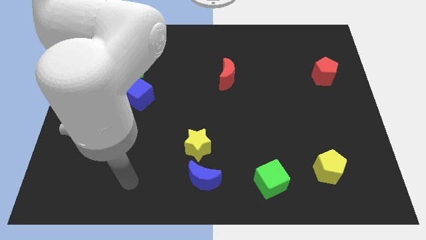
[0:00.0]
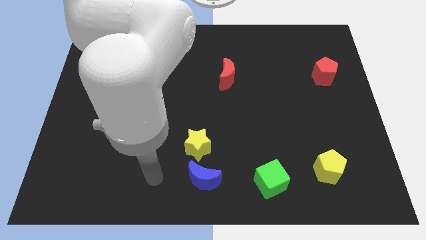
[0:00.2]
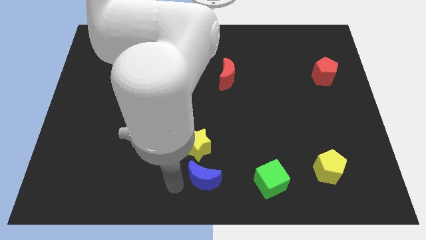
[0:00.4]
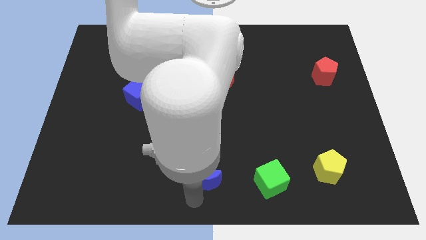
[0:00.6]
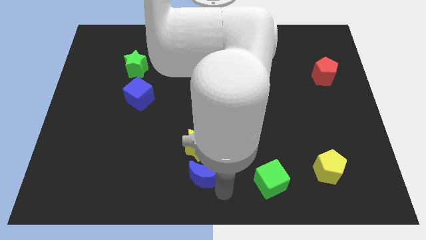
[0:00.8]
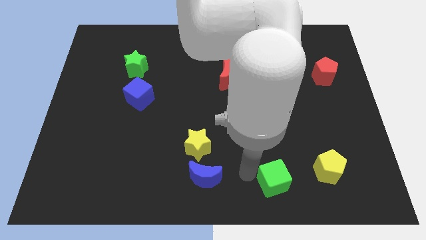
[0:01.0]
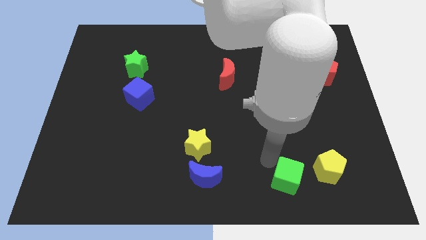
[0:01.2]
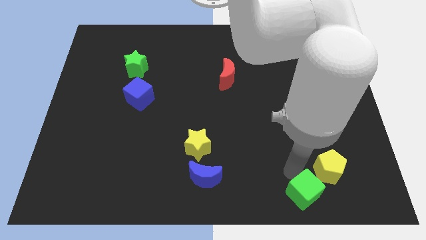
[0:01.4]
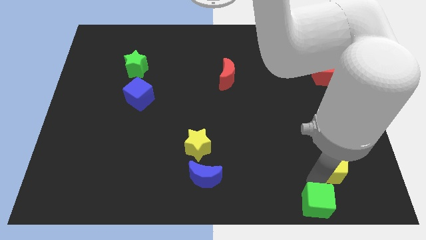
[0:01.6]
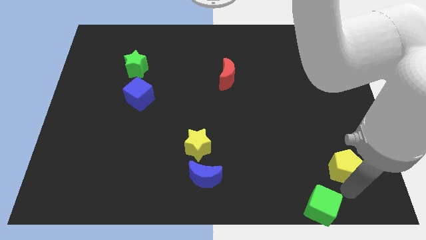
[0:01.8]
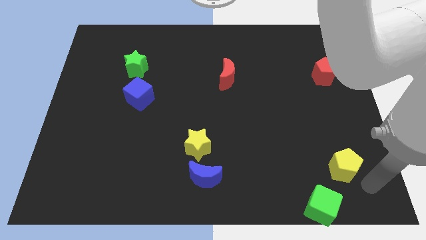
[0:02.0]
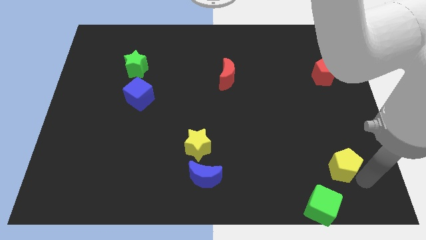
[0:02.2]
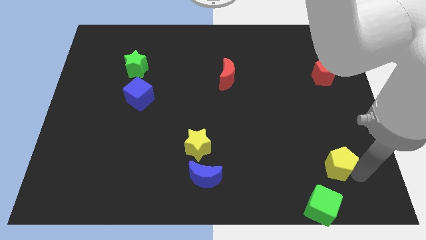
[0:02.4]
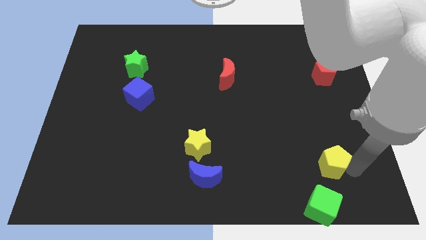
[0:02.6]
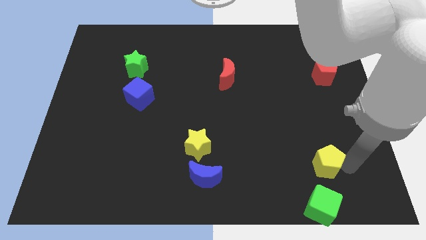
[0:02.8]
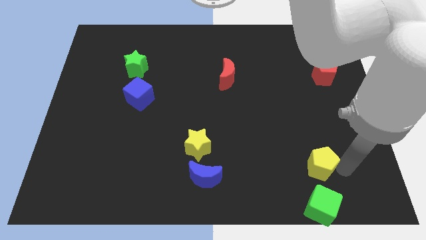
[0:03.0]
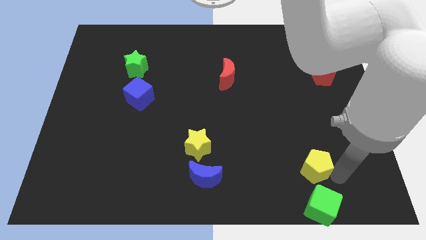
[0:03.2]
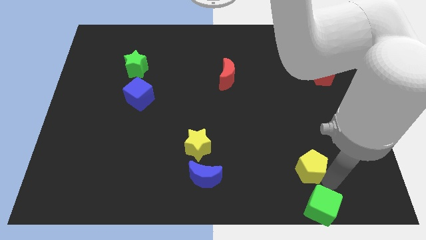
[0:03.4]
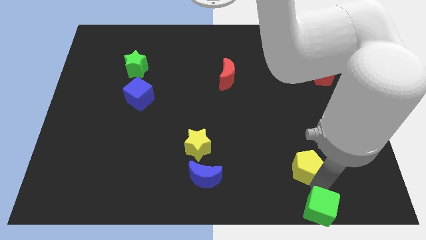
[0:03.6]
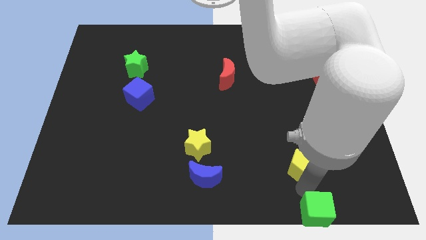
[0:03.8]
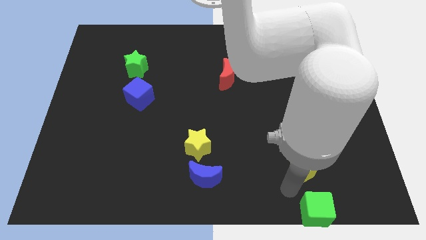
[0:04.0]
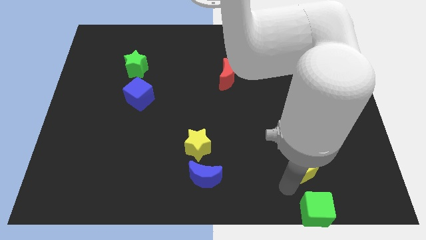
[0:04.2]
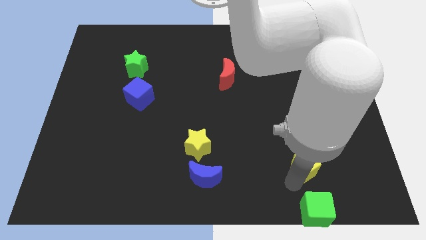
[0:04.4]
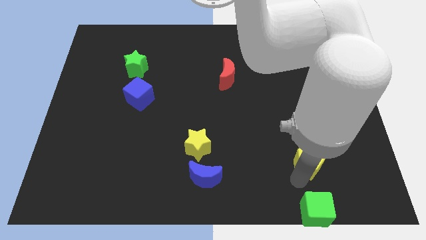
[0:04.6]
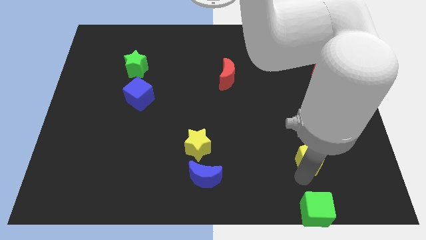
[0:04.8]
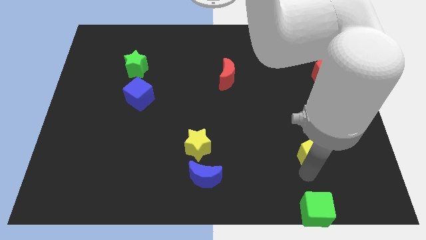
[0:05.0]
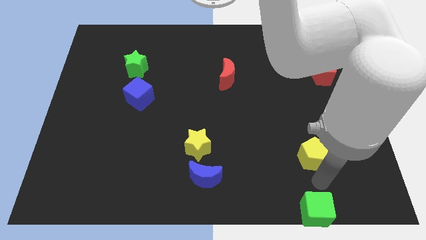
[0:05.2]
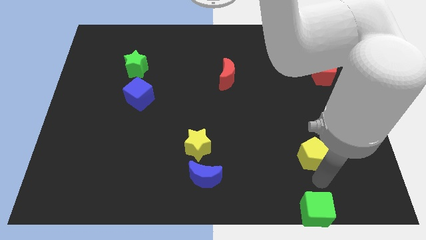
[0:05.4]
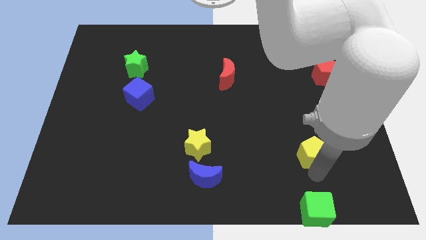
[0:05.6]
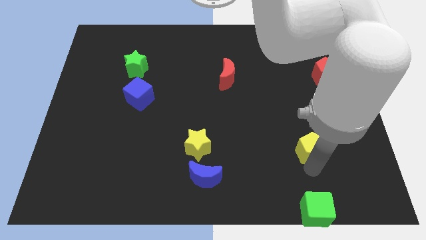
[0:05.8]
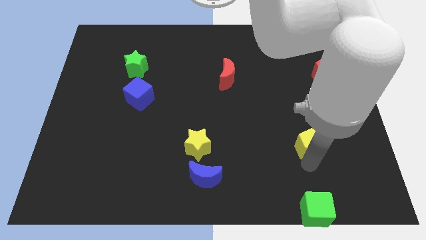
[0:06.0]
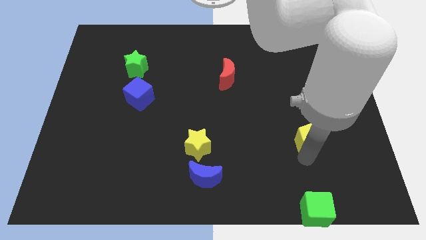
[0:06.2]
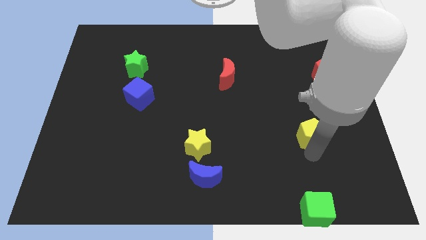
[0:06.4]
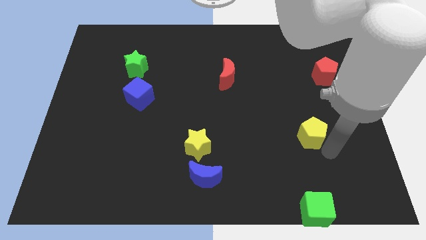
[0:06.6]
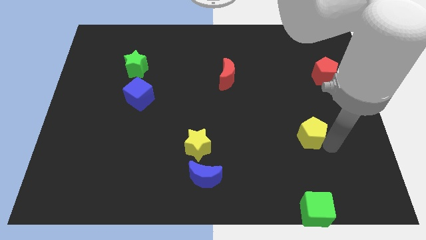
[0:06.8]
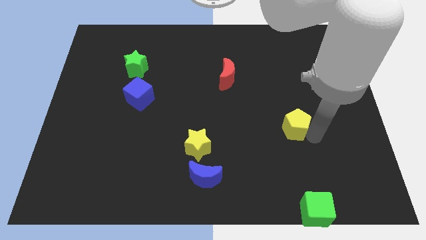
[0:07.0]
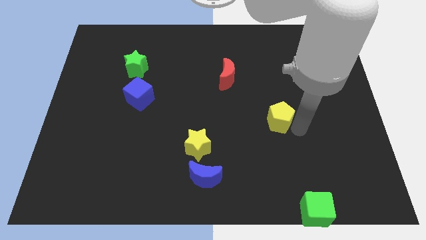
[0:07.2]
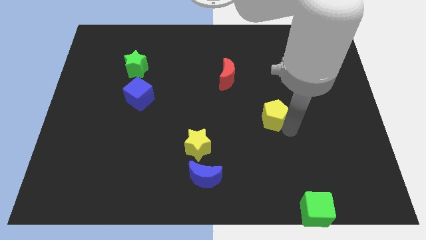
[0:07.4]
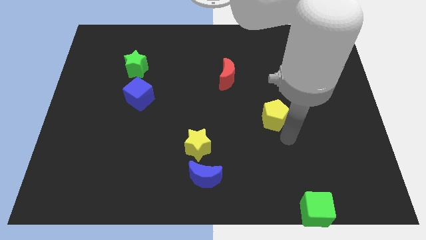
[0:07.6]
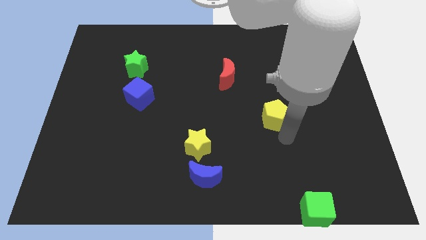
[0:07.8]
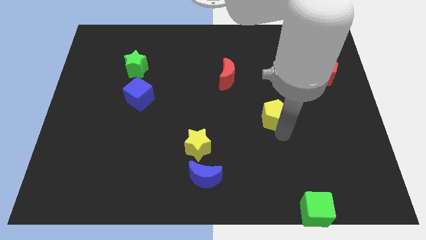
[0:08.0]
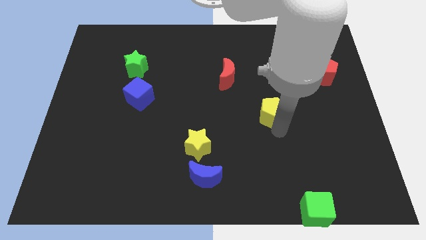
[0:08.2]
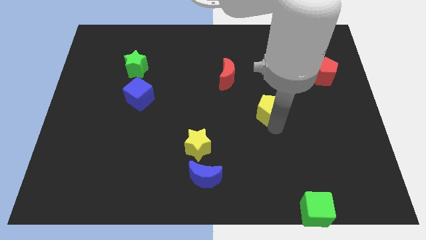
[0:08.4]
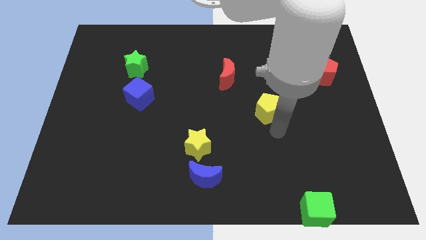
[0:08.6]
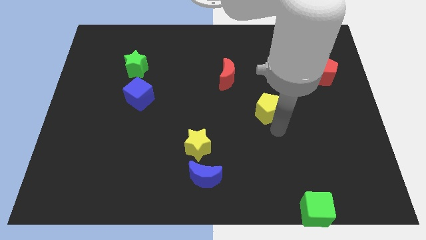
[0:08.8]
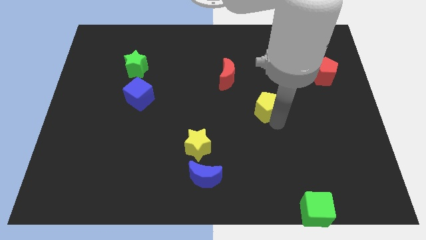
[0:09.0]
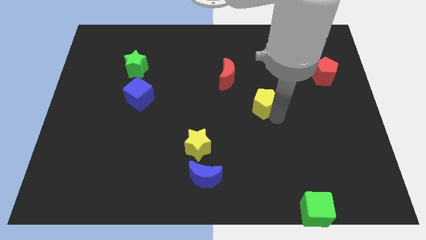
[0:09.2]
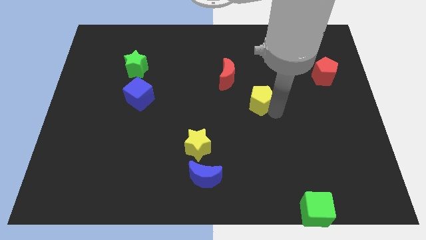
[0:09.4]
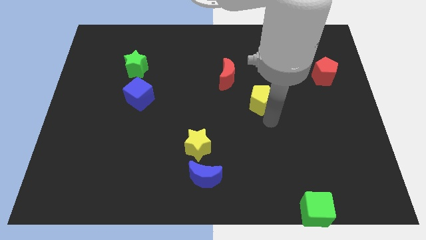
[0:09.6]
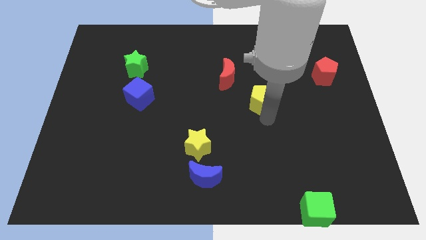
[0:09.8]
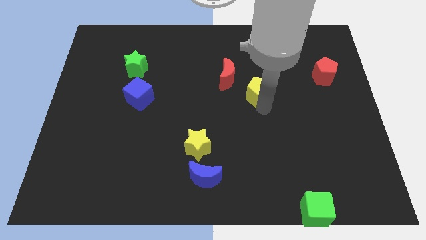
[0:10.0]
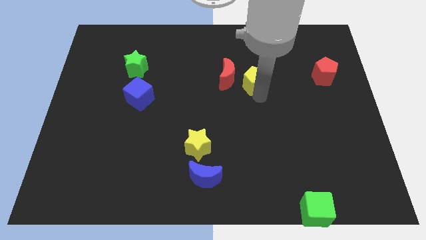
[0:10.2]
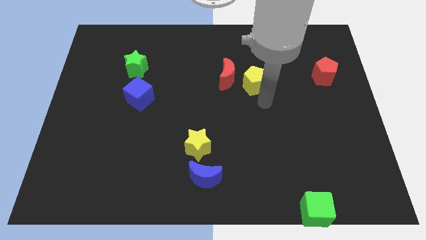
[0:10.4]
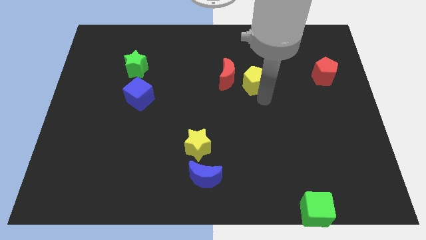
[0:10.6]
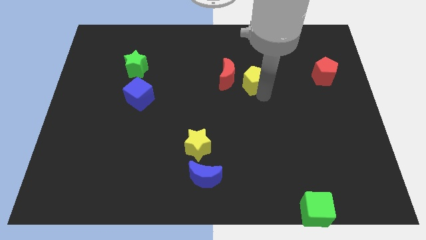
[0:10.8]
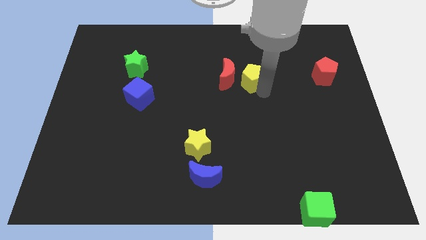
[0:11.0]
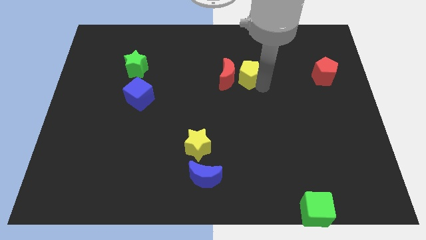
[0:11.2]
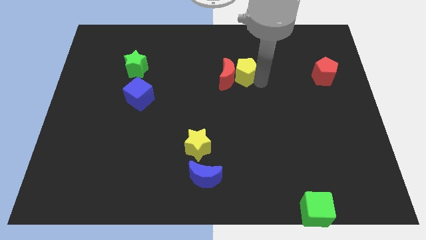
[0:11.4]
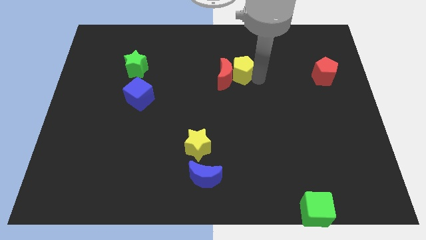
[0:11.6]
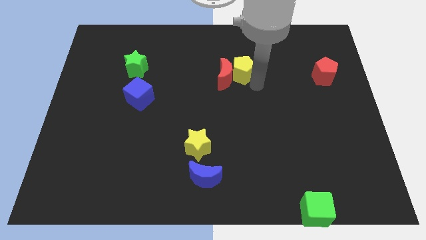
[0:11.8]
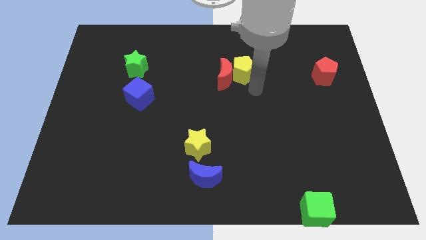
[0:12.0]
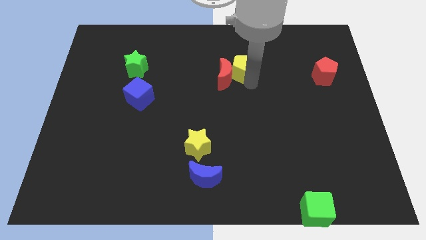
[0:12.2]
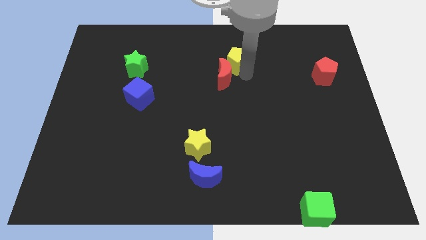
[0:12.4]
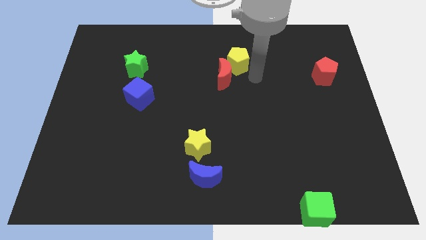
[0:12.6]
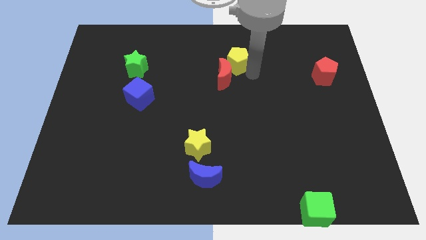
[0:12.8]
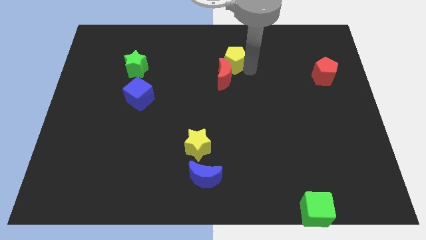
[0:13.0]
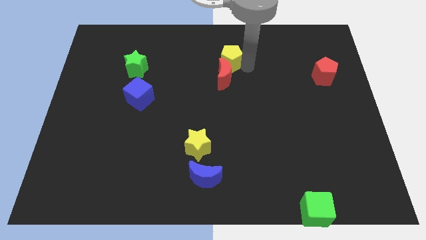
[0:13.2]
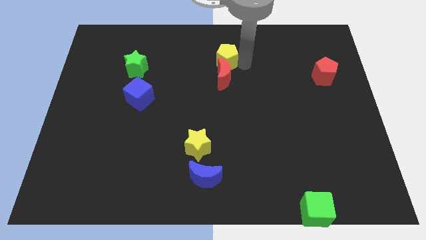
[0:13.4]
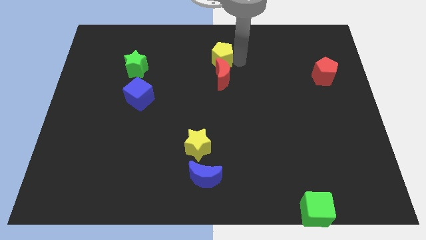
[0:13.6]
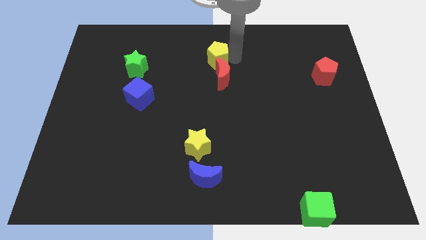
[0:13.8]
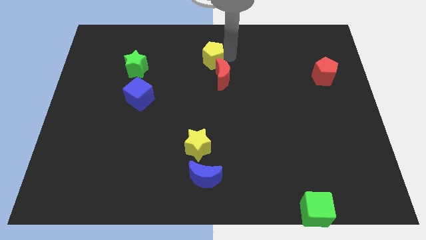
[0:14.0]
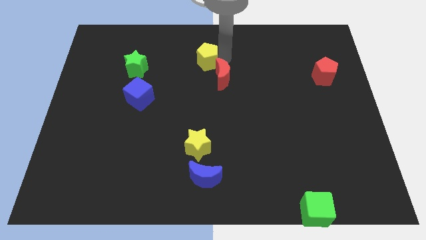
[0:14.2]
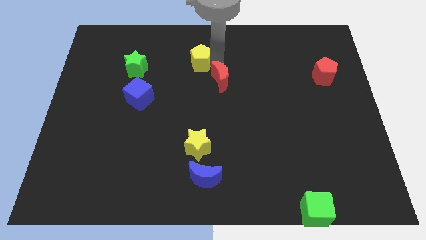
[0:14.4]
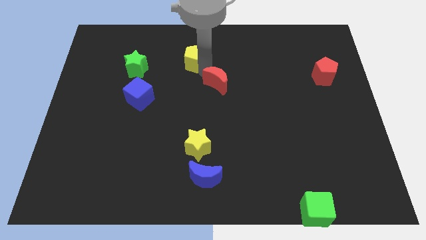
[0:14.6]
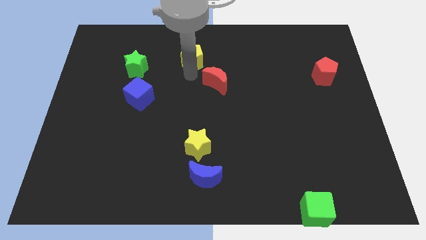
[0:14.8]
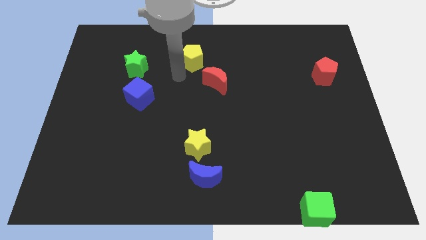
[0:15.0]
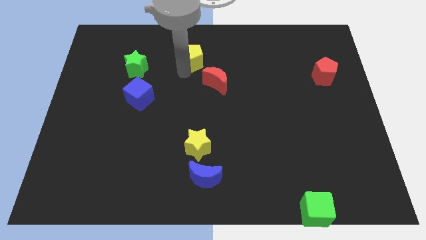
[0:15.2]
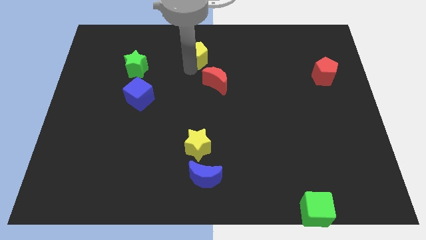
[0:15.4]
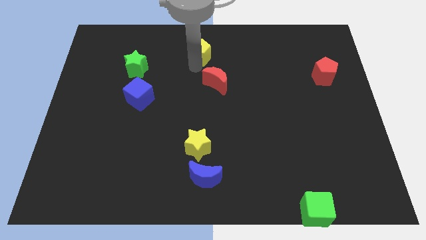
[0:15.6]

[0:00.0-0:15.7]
move the yellow pentagon to the top side
